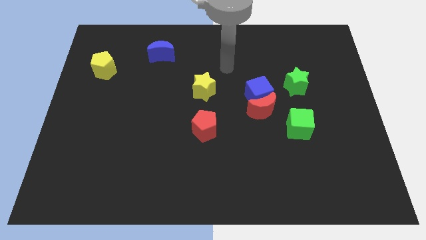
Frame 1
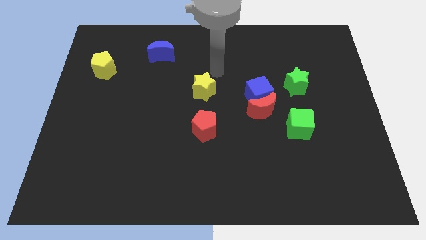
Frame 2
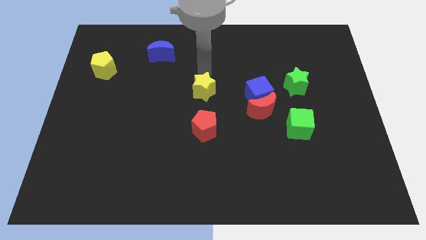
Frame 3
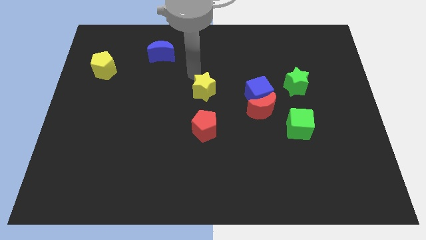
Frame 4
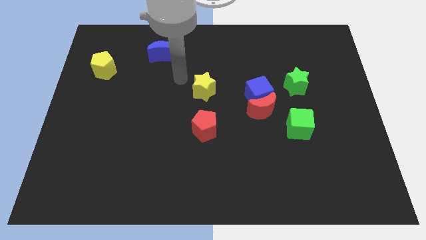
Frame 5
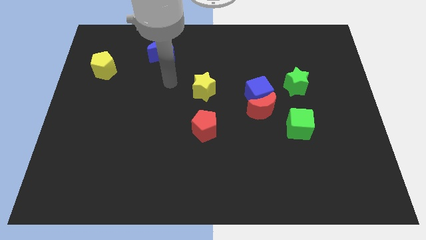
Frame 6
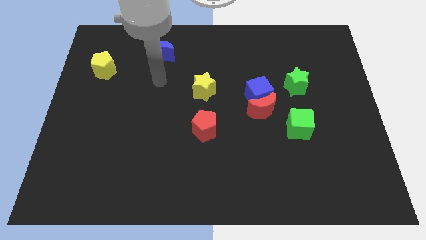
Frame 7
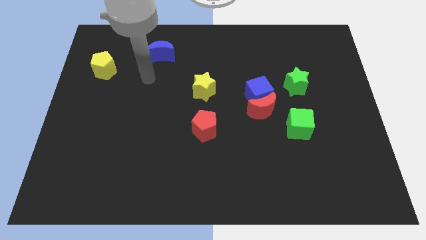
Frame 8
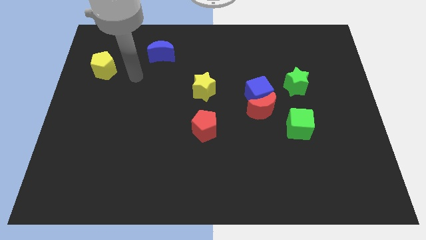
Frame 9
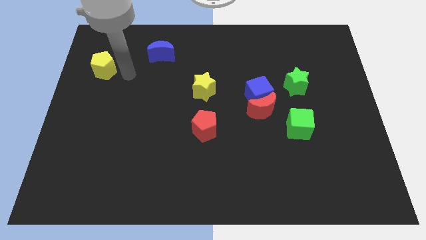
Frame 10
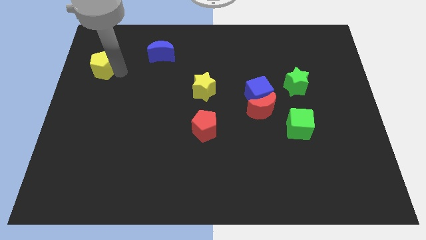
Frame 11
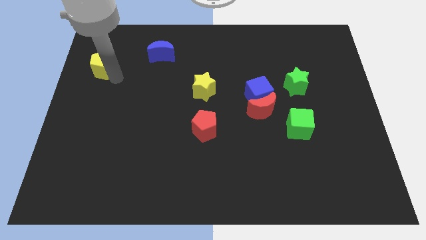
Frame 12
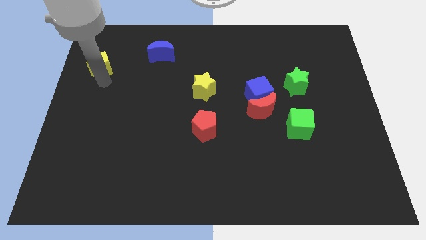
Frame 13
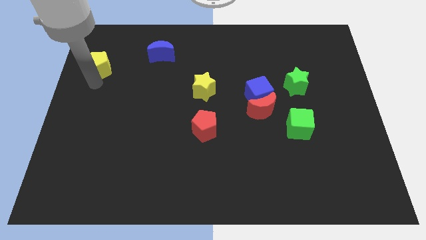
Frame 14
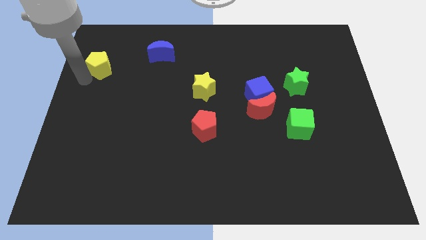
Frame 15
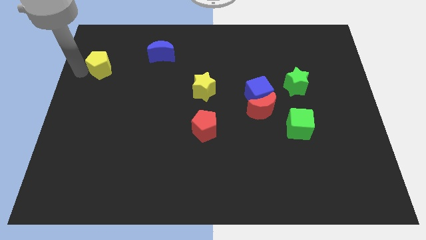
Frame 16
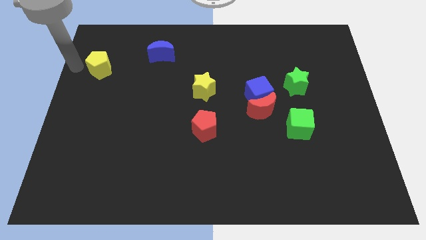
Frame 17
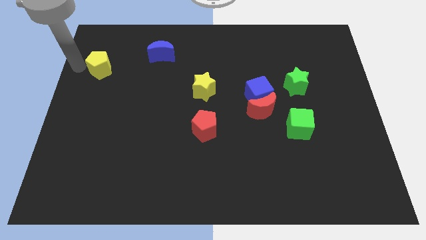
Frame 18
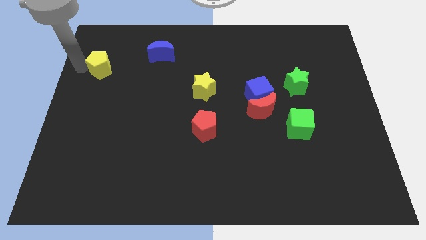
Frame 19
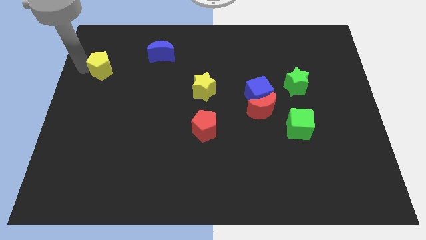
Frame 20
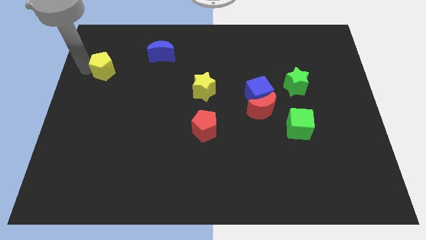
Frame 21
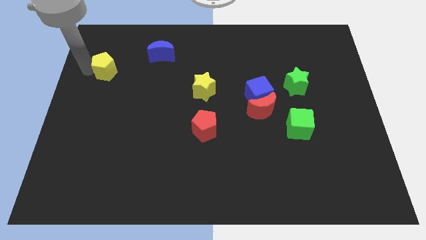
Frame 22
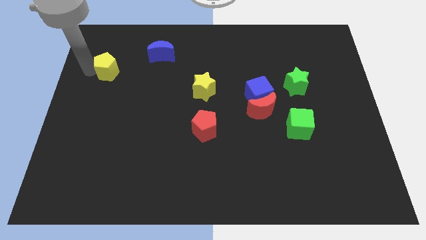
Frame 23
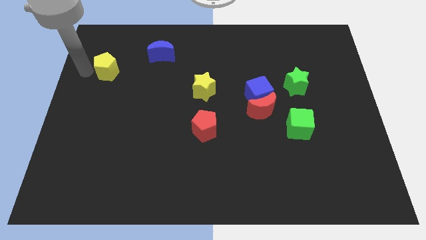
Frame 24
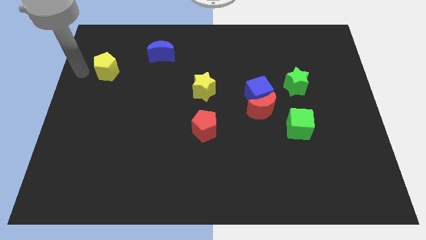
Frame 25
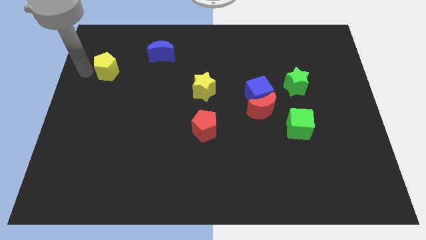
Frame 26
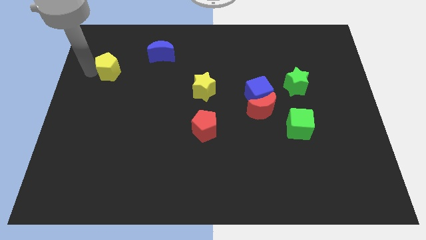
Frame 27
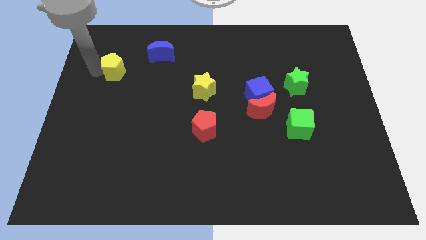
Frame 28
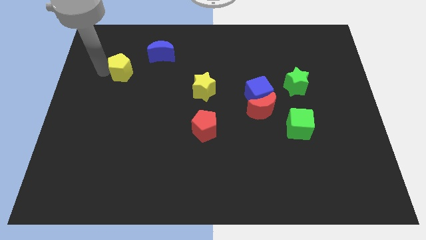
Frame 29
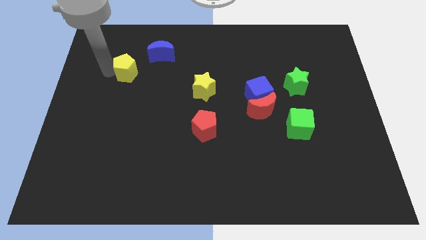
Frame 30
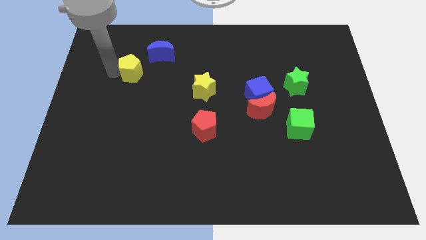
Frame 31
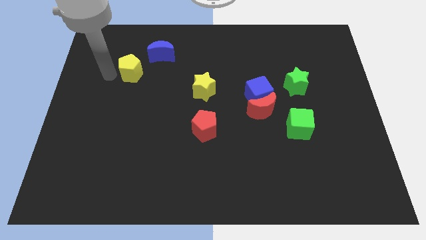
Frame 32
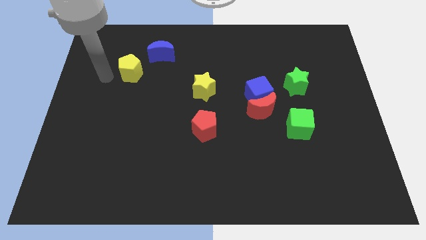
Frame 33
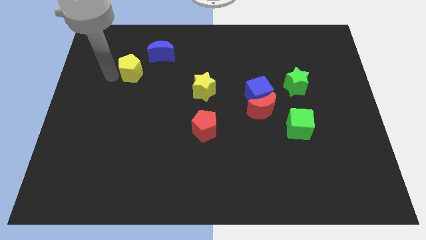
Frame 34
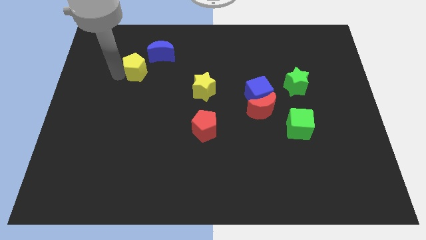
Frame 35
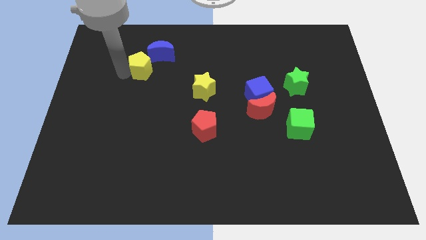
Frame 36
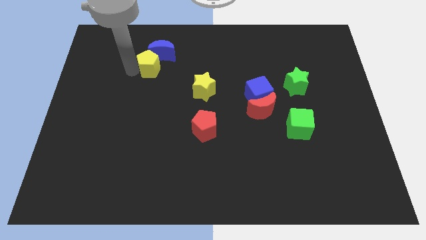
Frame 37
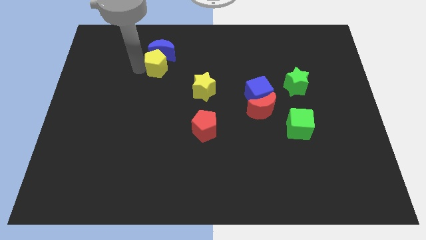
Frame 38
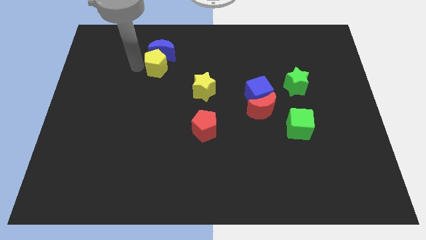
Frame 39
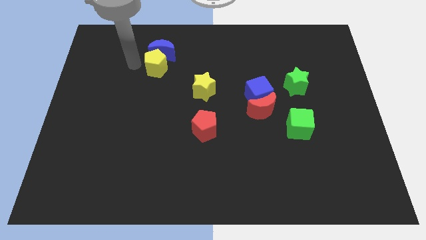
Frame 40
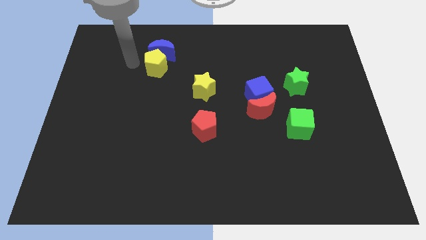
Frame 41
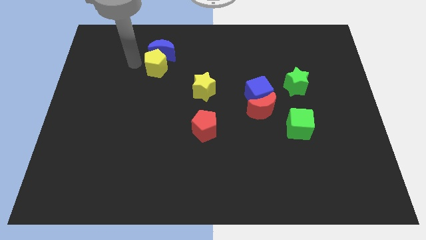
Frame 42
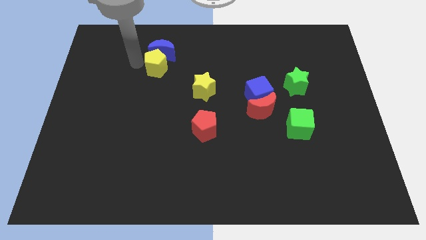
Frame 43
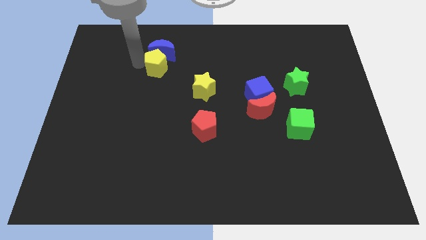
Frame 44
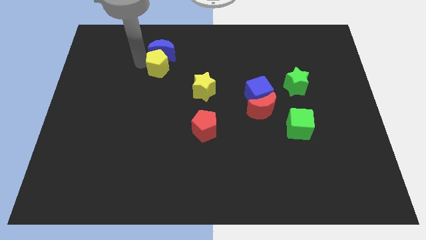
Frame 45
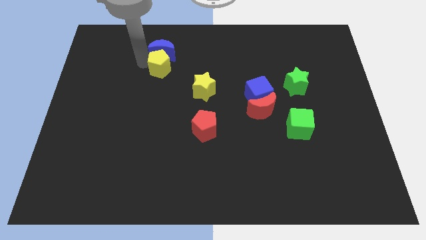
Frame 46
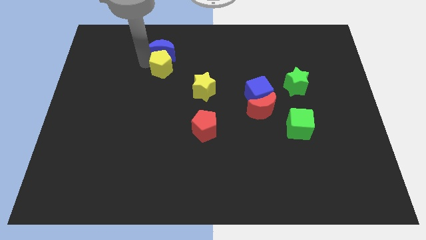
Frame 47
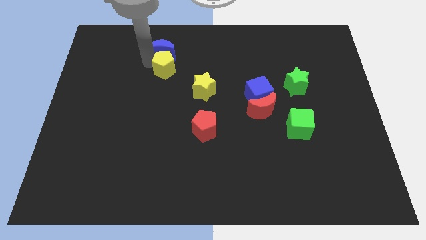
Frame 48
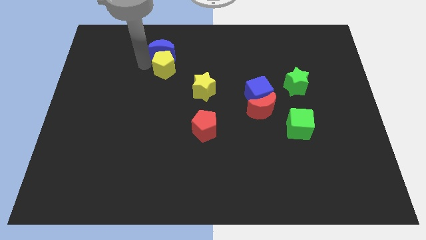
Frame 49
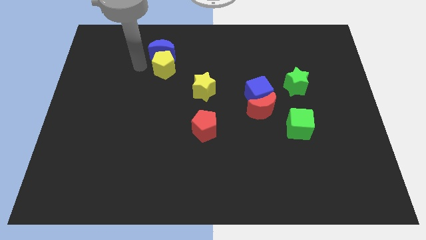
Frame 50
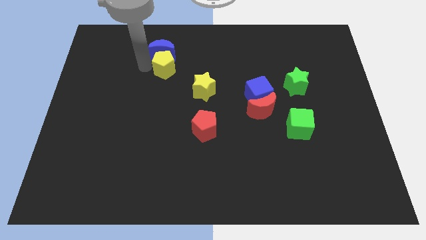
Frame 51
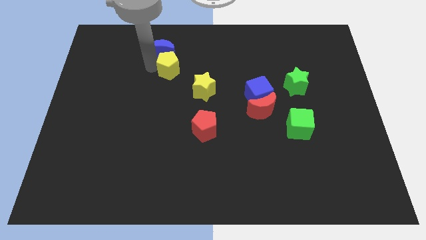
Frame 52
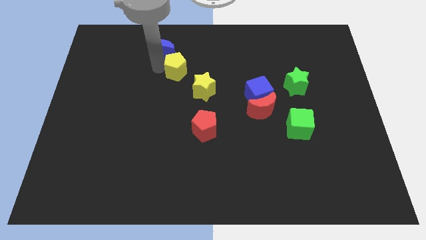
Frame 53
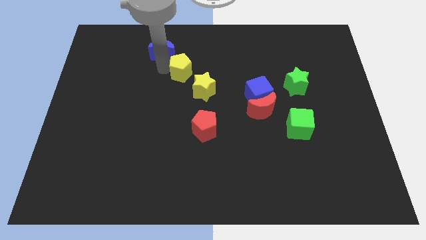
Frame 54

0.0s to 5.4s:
push the yellow pentagon right

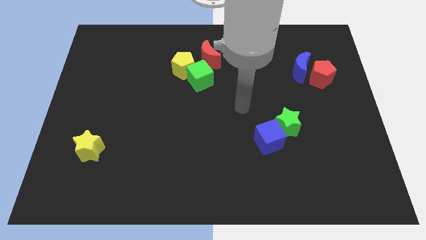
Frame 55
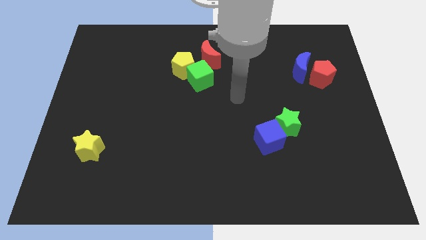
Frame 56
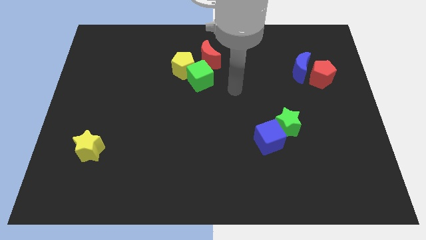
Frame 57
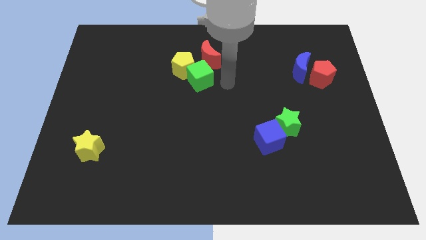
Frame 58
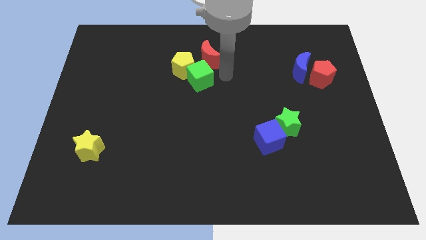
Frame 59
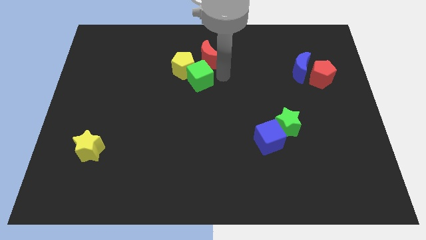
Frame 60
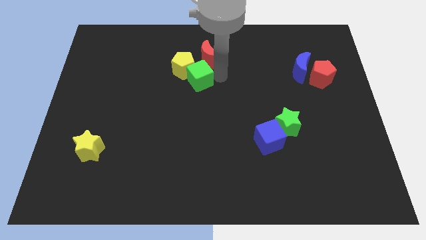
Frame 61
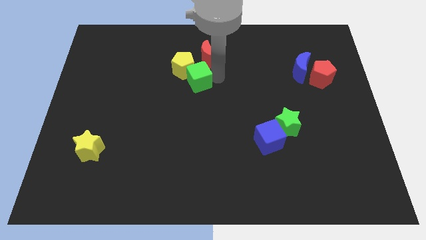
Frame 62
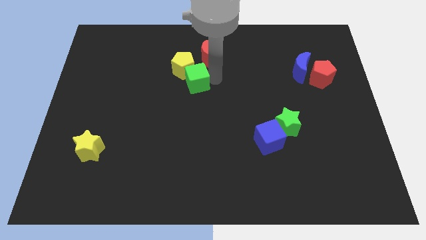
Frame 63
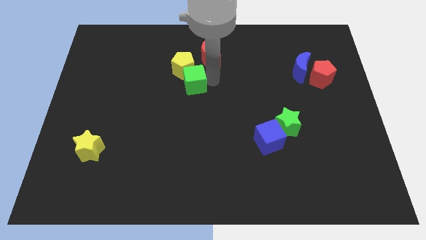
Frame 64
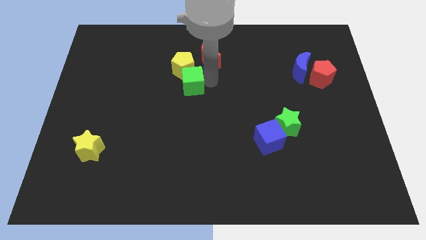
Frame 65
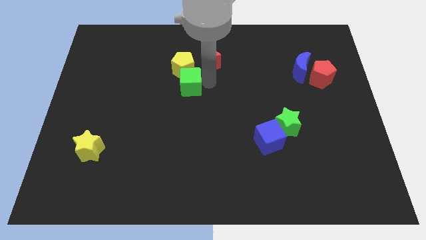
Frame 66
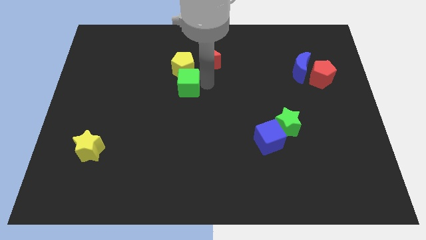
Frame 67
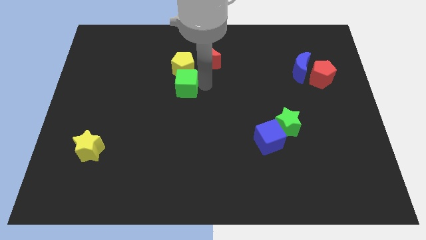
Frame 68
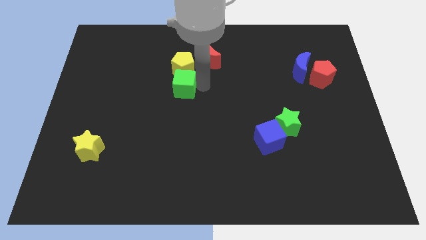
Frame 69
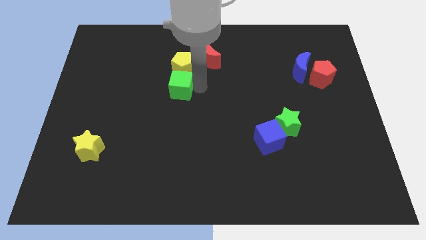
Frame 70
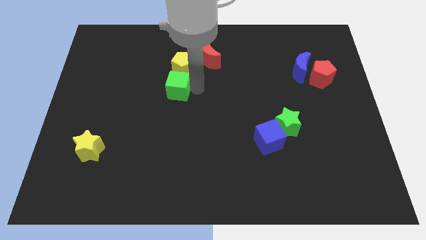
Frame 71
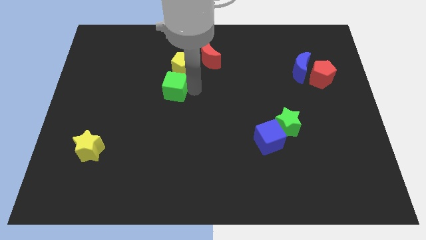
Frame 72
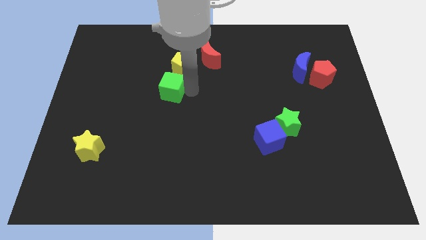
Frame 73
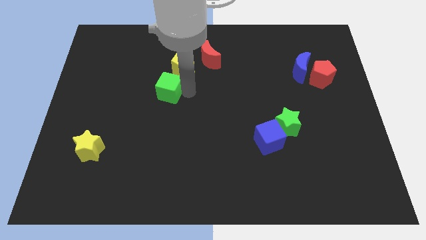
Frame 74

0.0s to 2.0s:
slide the green cube a little to the left

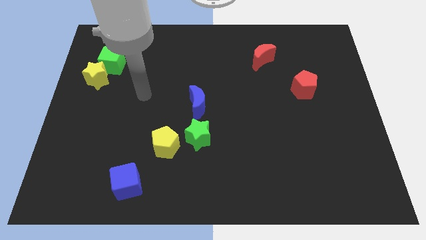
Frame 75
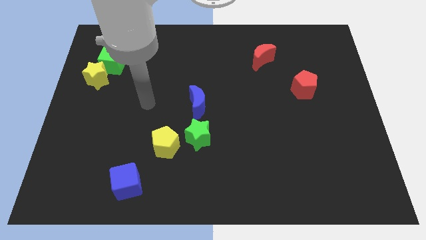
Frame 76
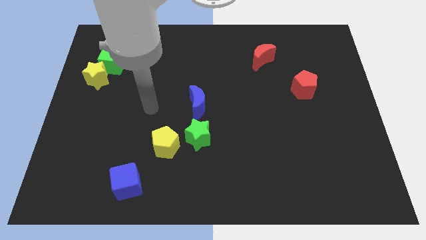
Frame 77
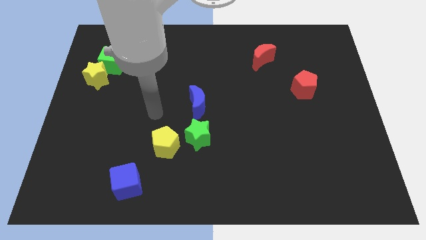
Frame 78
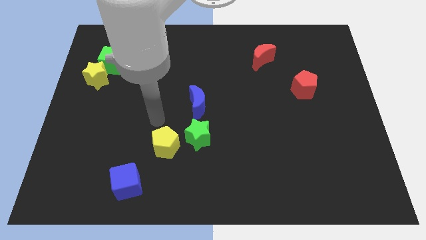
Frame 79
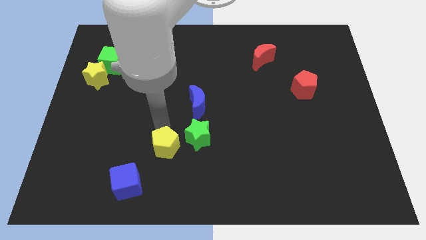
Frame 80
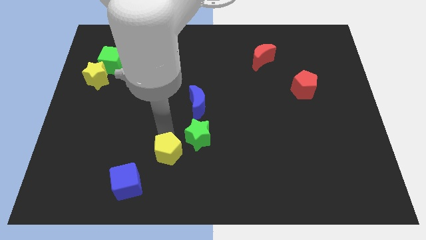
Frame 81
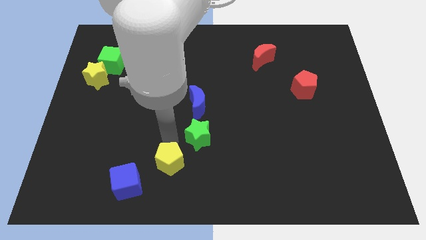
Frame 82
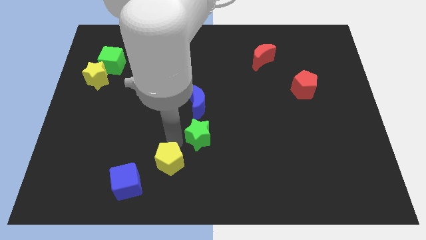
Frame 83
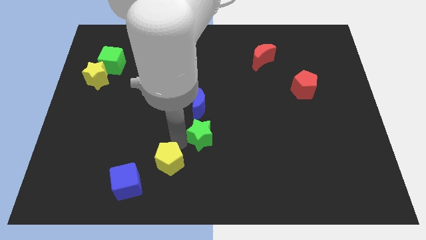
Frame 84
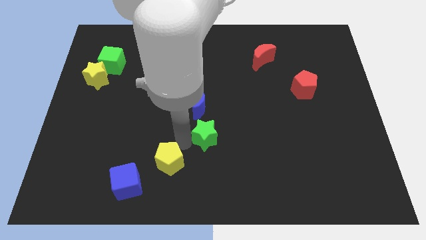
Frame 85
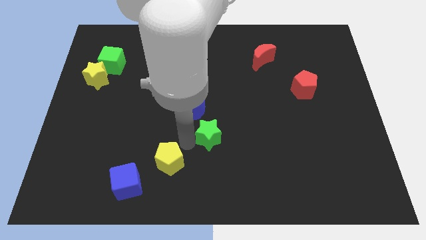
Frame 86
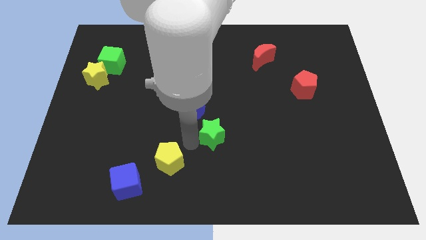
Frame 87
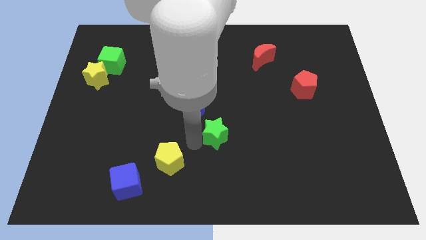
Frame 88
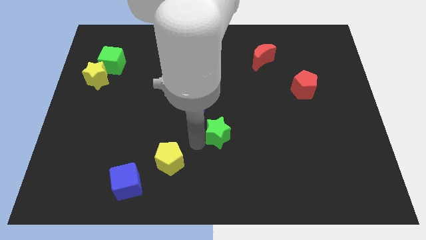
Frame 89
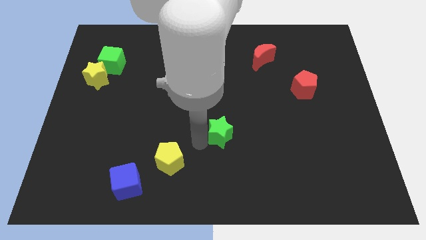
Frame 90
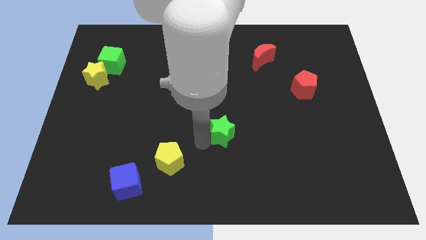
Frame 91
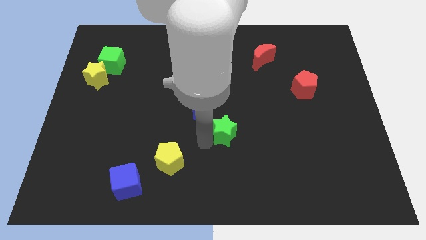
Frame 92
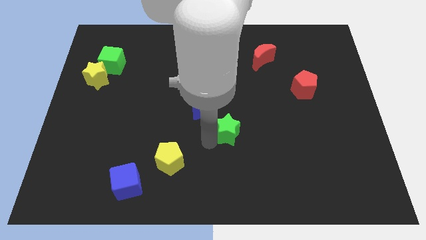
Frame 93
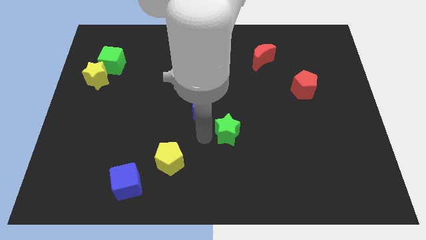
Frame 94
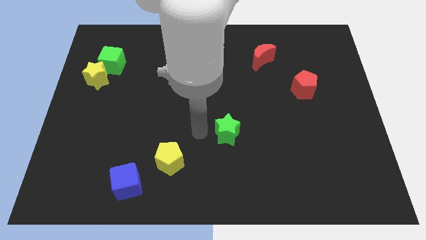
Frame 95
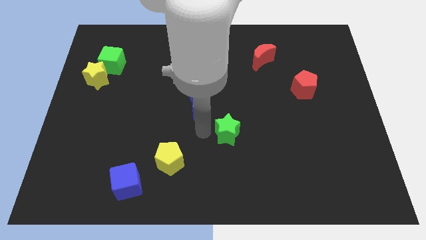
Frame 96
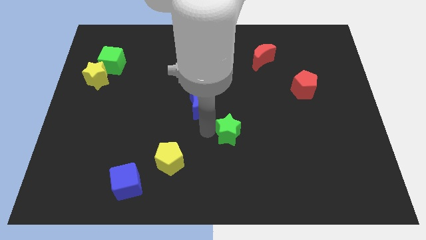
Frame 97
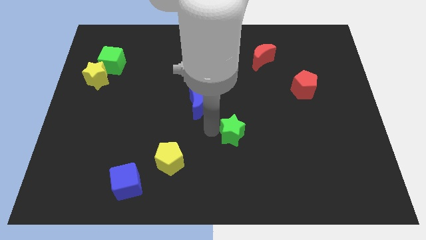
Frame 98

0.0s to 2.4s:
slide the green star right somewhat
